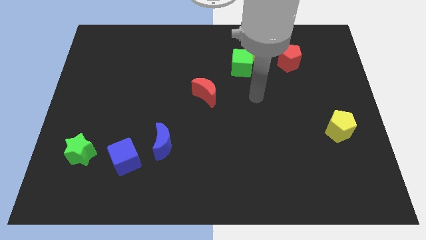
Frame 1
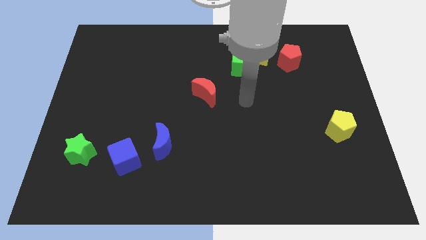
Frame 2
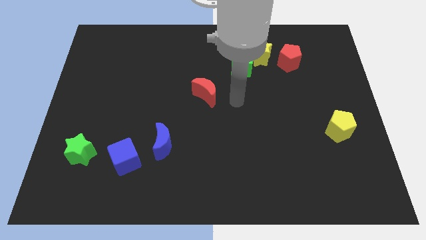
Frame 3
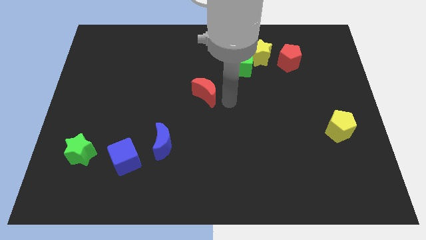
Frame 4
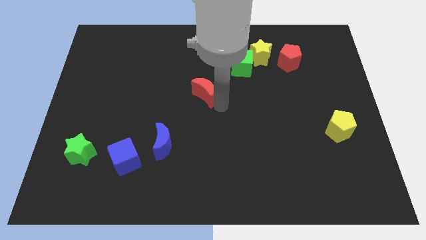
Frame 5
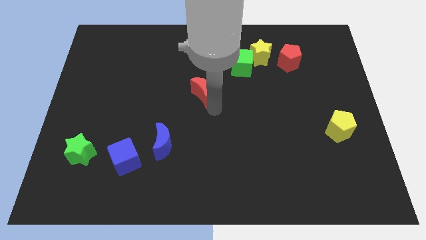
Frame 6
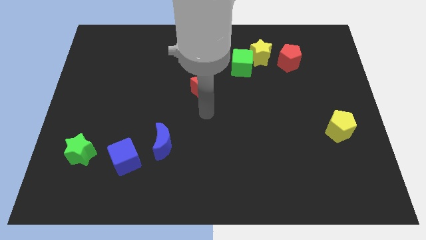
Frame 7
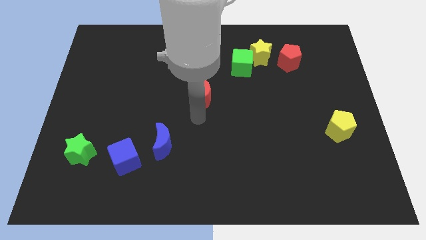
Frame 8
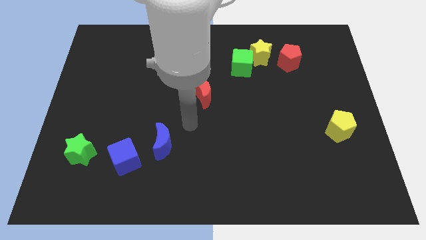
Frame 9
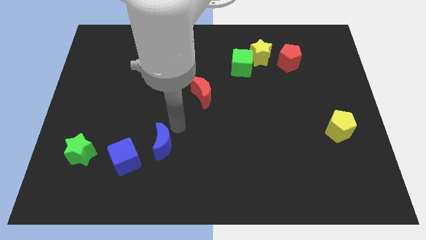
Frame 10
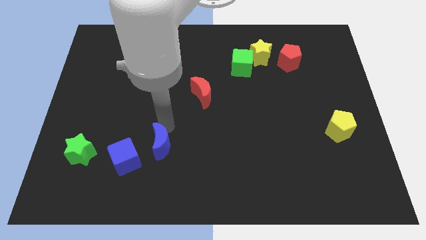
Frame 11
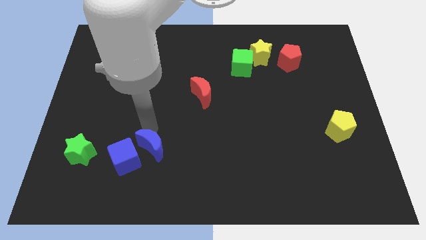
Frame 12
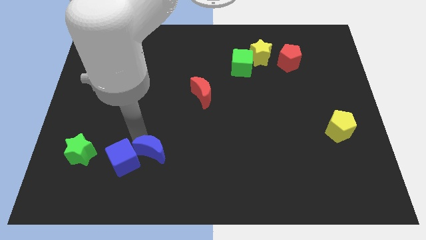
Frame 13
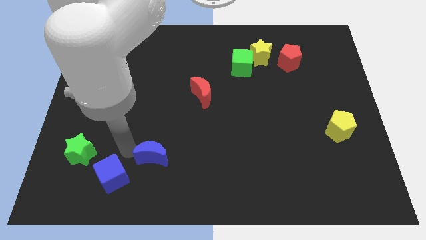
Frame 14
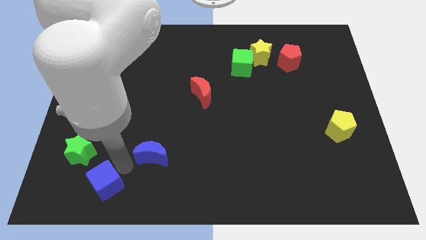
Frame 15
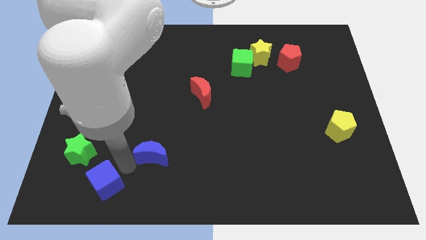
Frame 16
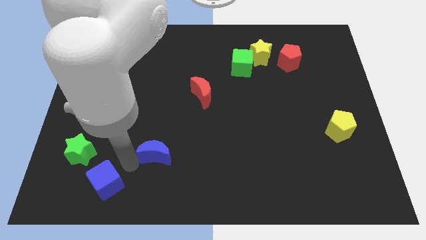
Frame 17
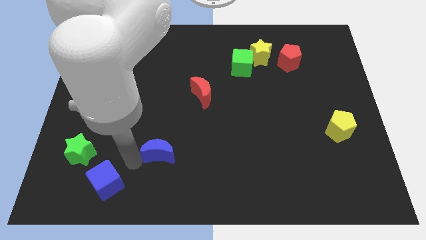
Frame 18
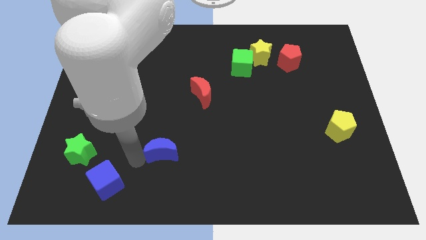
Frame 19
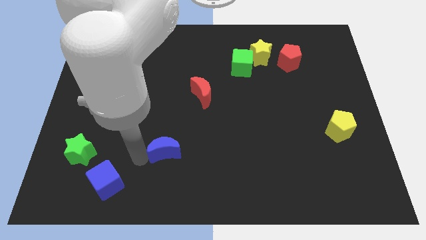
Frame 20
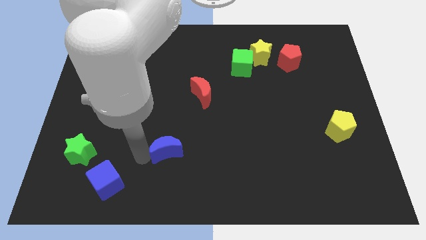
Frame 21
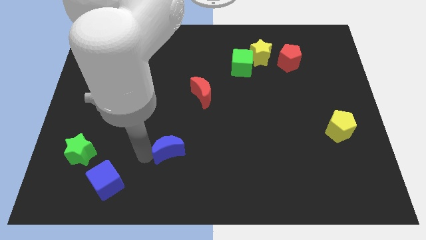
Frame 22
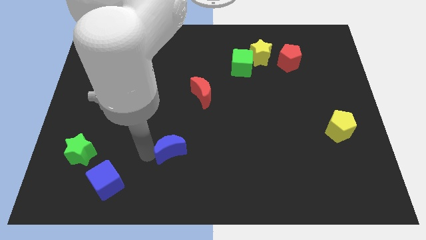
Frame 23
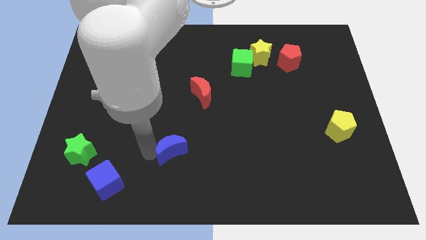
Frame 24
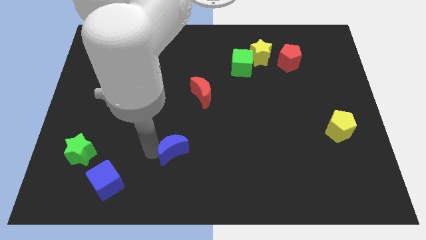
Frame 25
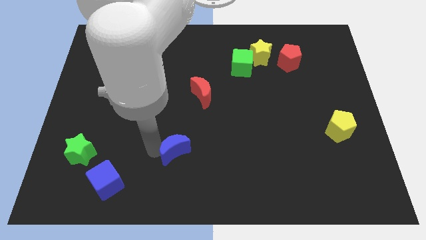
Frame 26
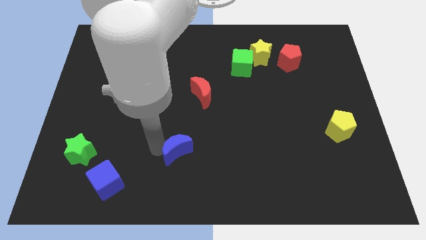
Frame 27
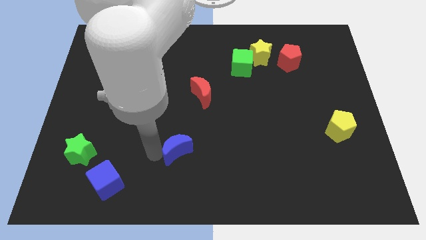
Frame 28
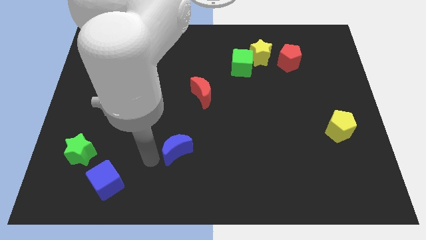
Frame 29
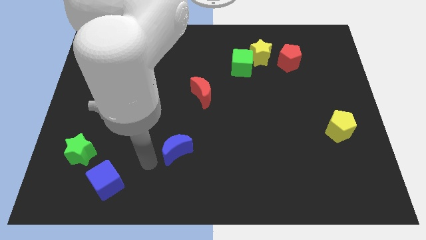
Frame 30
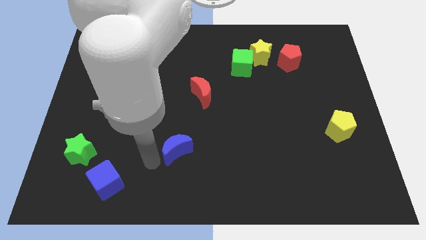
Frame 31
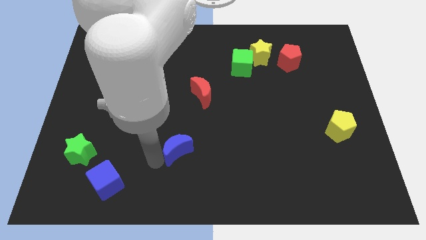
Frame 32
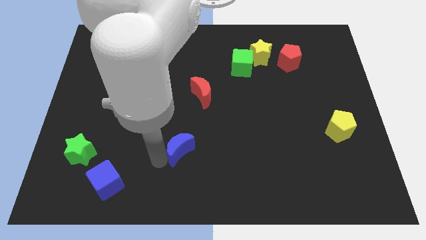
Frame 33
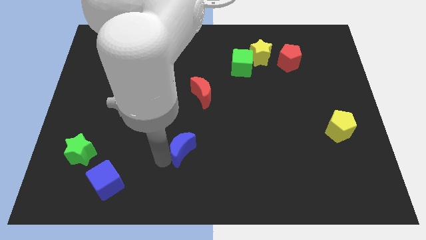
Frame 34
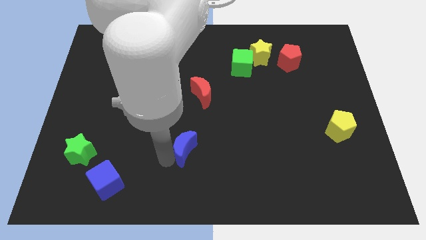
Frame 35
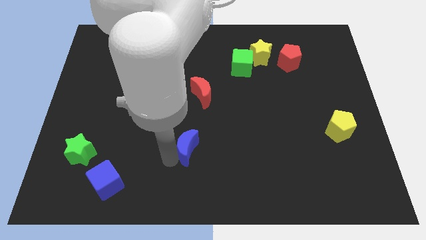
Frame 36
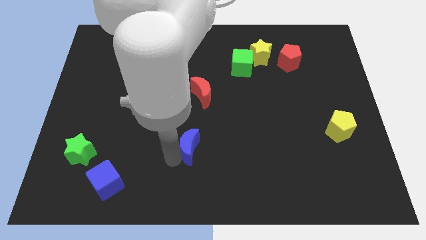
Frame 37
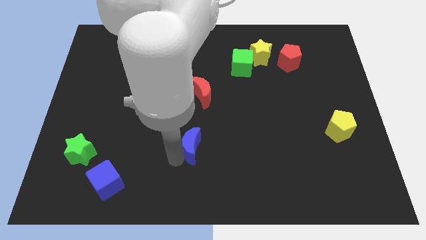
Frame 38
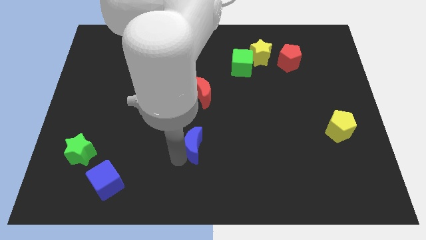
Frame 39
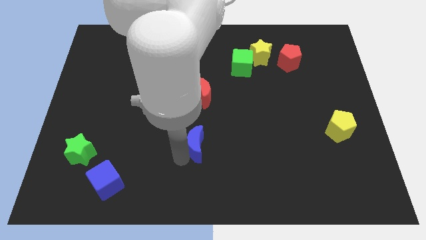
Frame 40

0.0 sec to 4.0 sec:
slightly slide the blue moon to the right

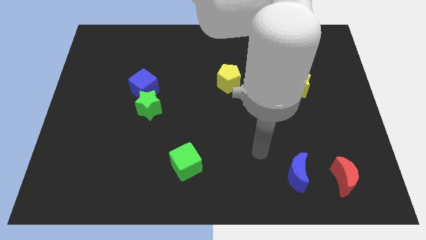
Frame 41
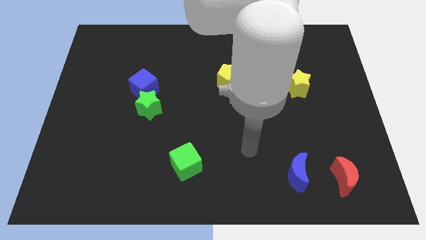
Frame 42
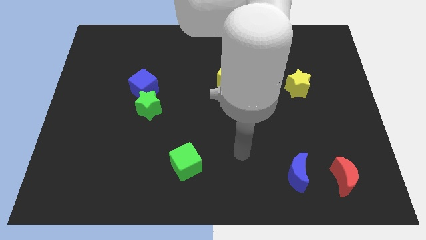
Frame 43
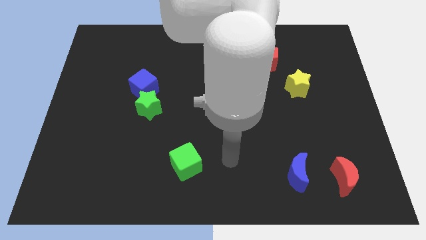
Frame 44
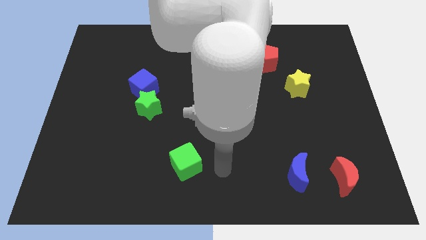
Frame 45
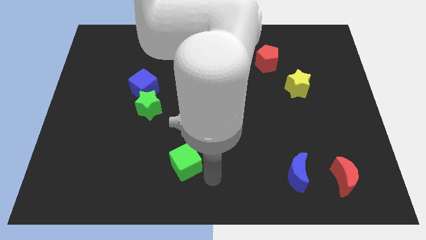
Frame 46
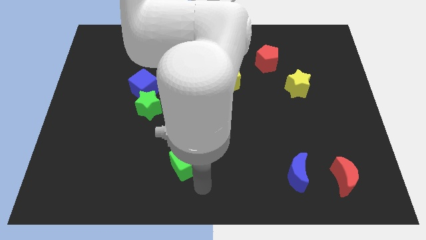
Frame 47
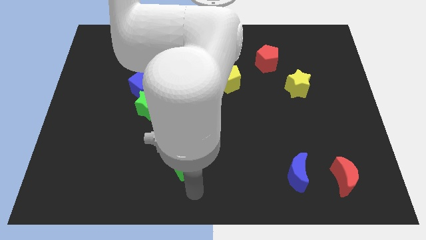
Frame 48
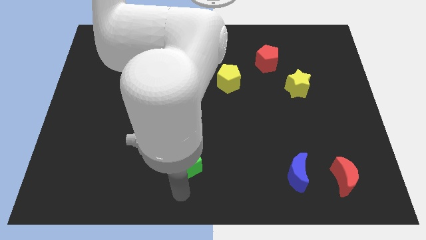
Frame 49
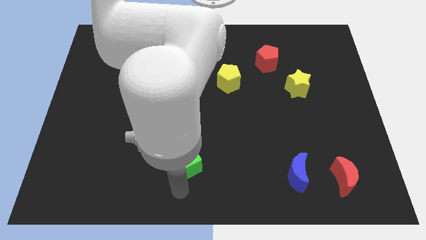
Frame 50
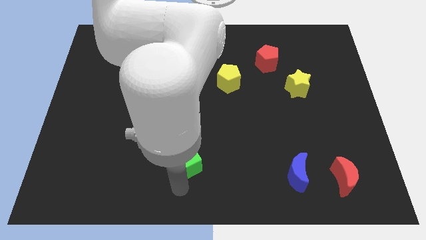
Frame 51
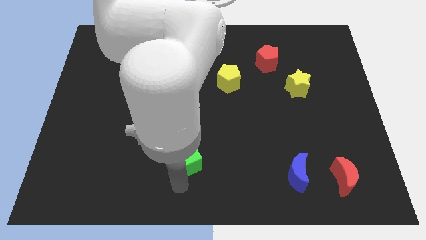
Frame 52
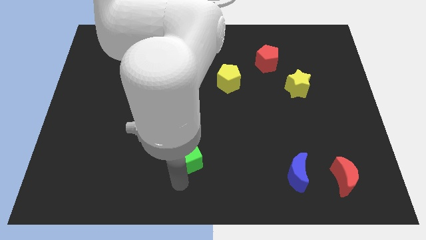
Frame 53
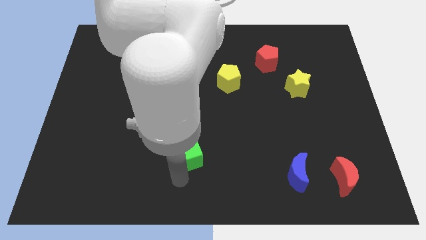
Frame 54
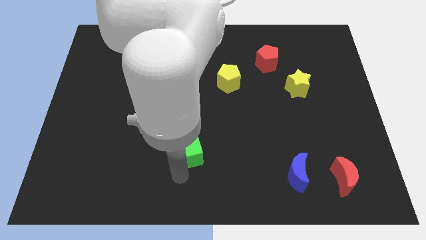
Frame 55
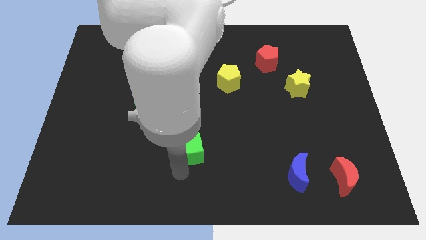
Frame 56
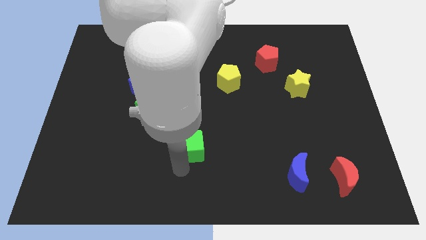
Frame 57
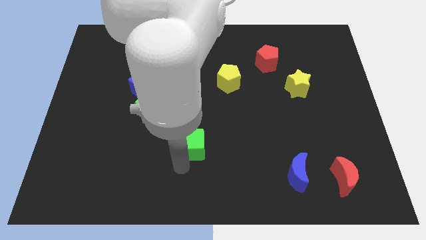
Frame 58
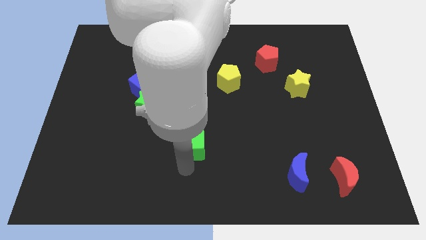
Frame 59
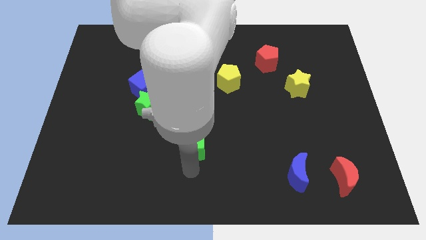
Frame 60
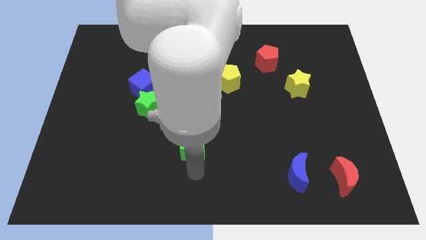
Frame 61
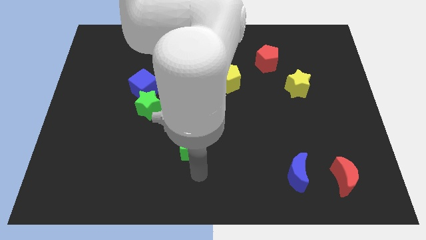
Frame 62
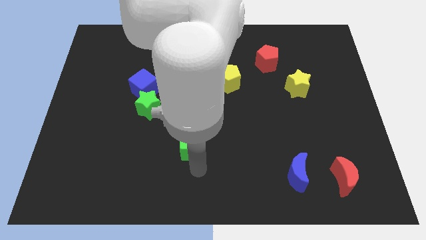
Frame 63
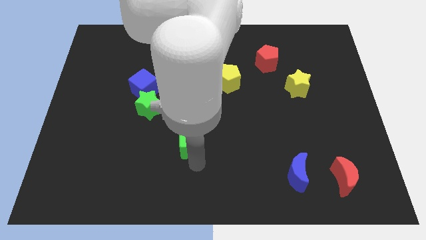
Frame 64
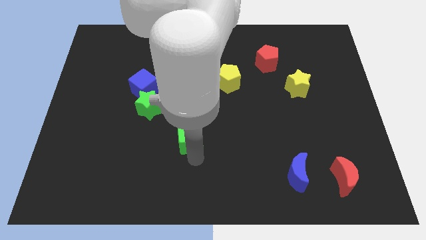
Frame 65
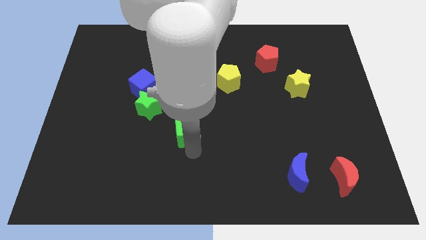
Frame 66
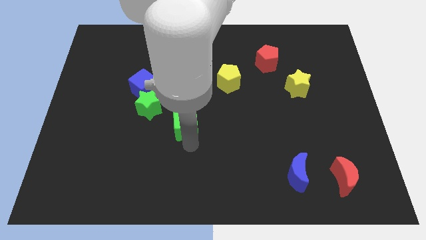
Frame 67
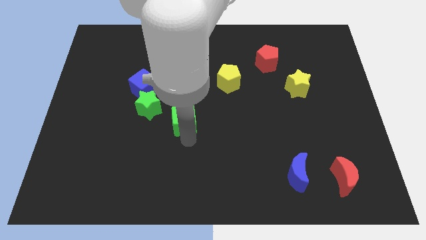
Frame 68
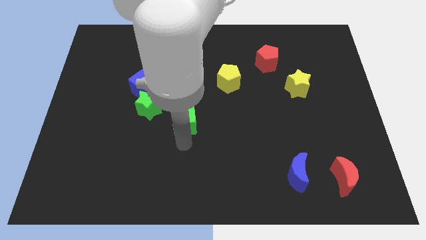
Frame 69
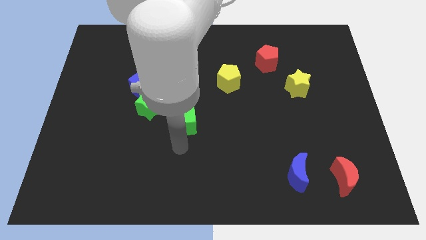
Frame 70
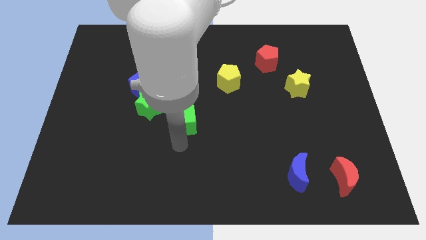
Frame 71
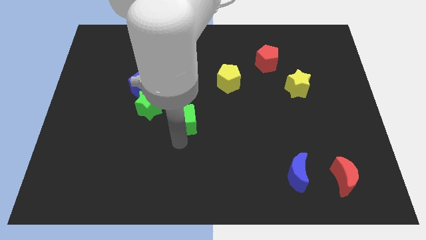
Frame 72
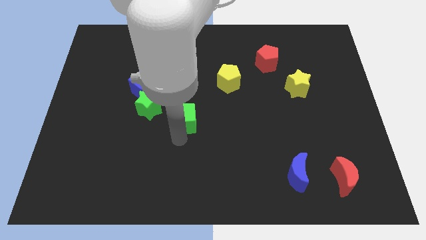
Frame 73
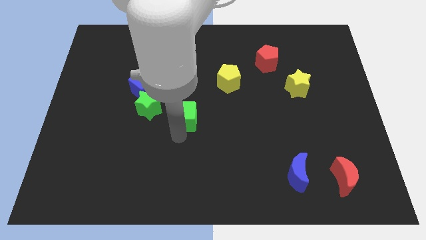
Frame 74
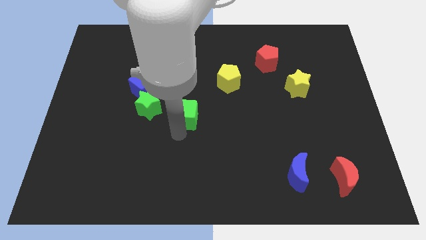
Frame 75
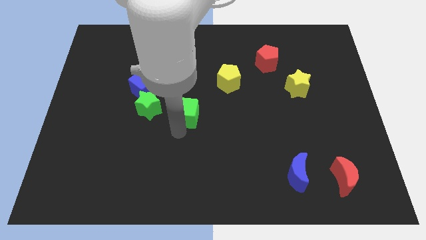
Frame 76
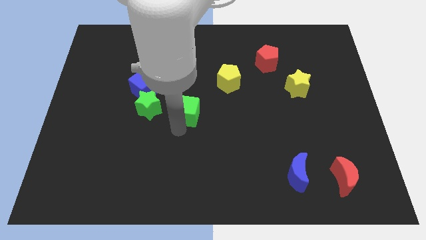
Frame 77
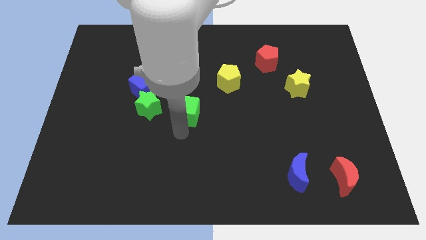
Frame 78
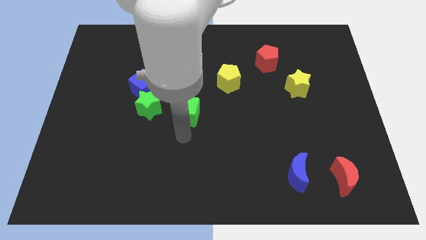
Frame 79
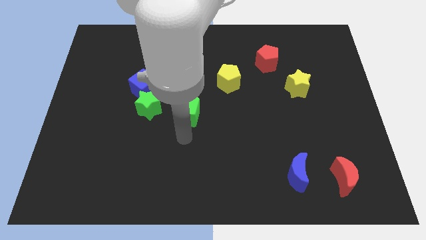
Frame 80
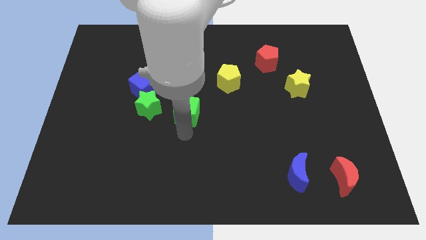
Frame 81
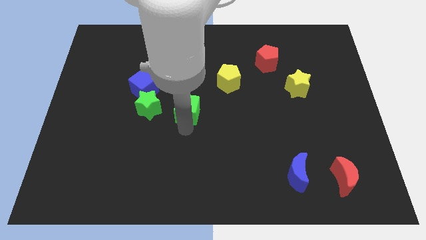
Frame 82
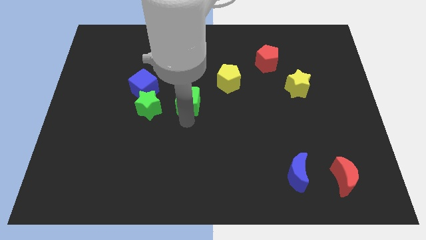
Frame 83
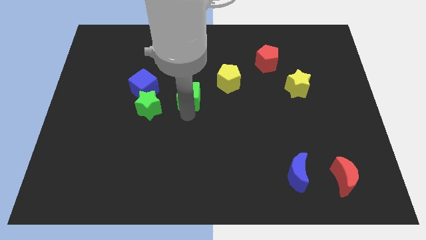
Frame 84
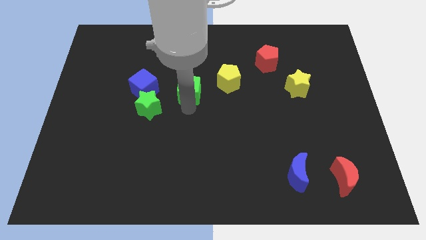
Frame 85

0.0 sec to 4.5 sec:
slide the green cube upwards
